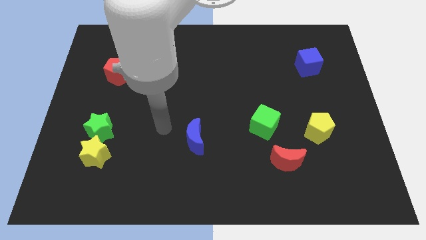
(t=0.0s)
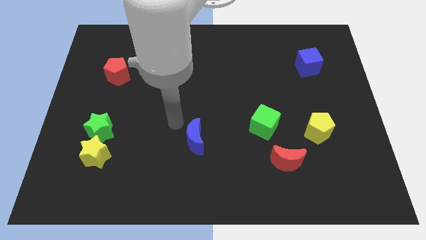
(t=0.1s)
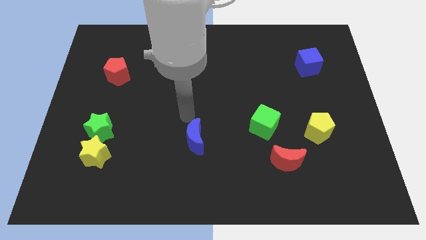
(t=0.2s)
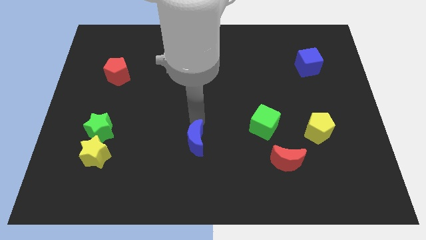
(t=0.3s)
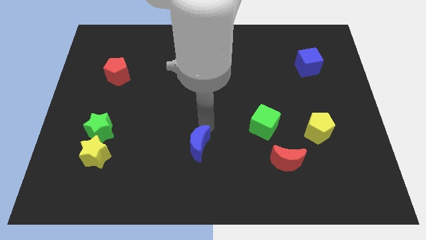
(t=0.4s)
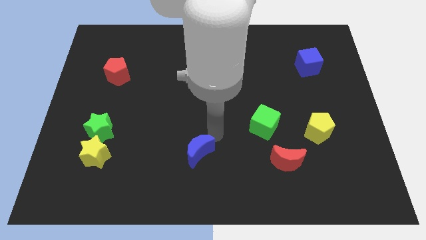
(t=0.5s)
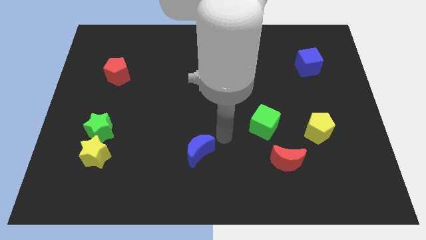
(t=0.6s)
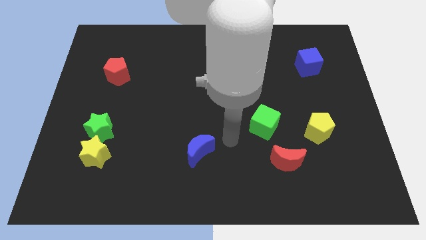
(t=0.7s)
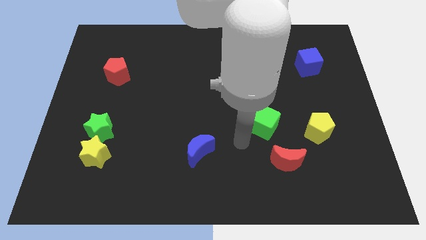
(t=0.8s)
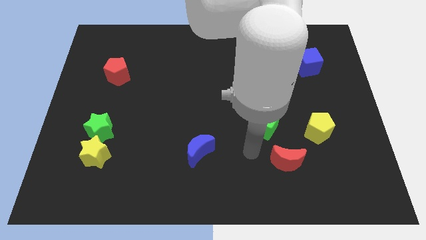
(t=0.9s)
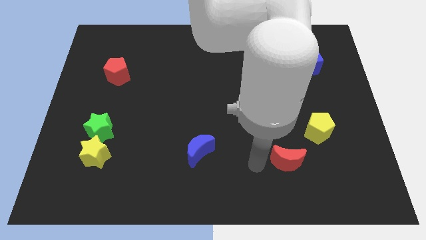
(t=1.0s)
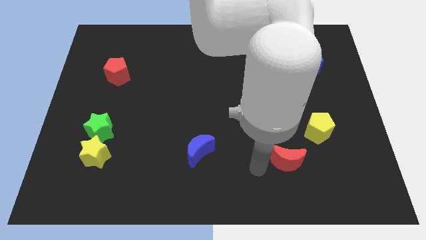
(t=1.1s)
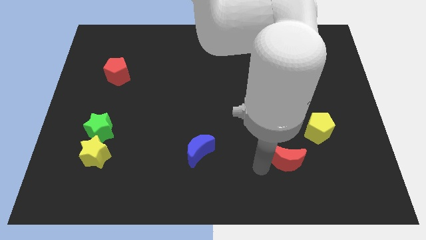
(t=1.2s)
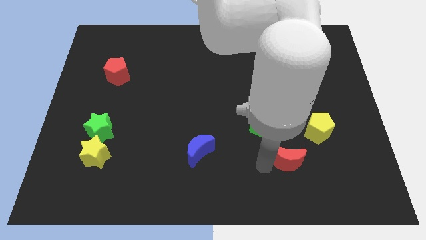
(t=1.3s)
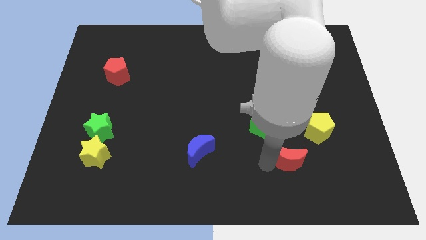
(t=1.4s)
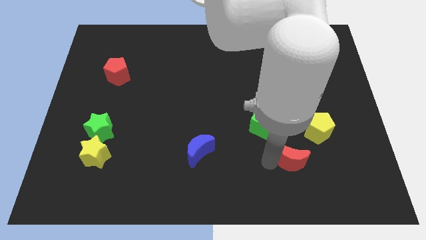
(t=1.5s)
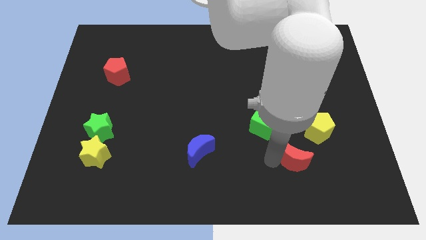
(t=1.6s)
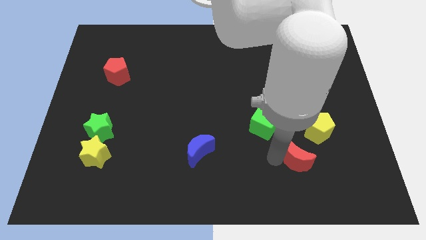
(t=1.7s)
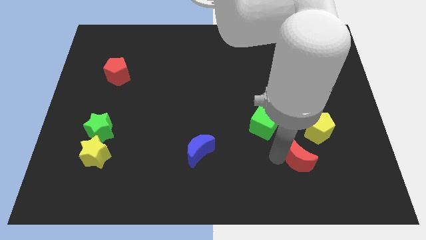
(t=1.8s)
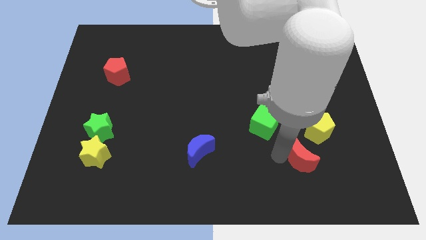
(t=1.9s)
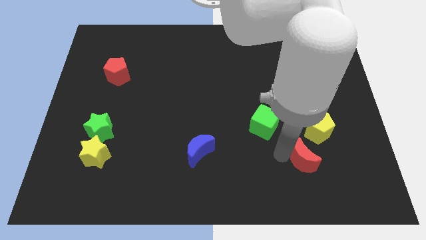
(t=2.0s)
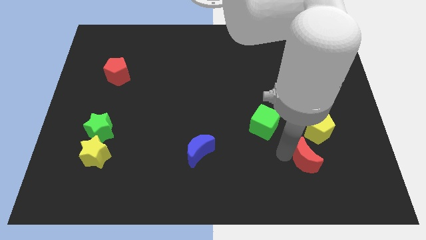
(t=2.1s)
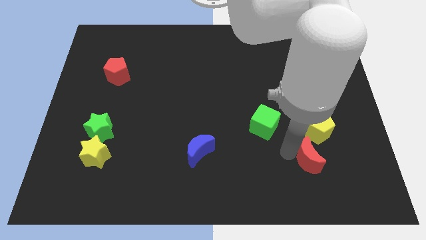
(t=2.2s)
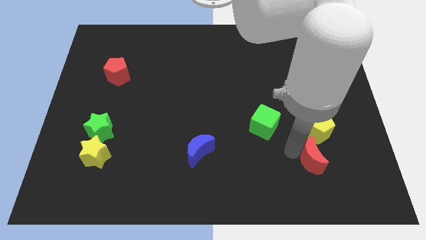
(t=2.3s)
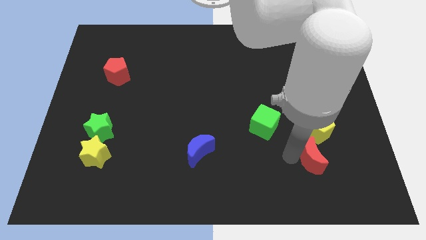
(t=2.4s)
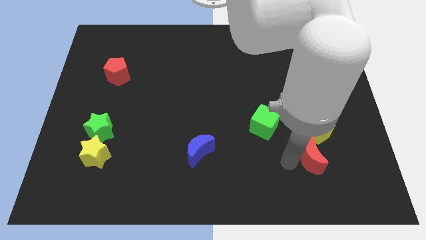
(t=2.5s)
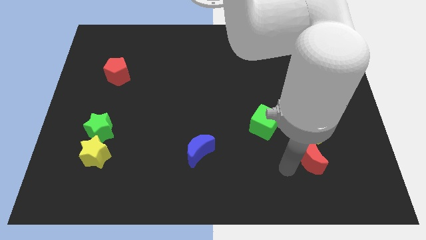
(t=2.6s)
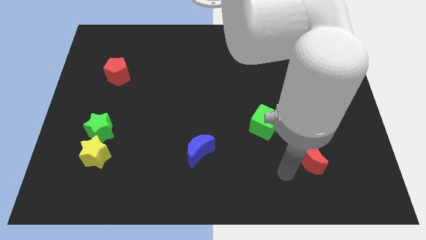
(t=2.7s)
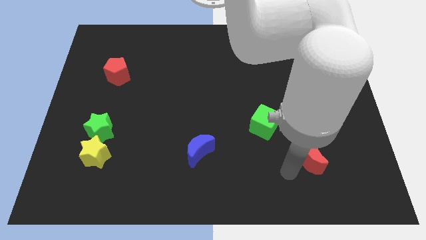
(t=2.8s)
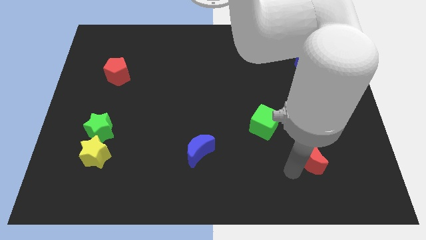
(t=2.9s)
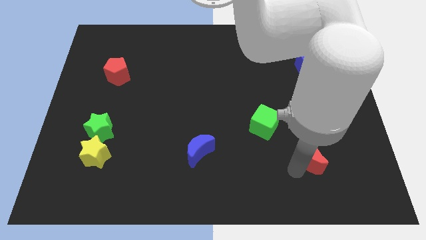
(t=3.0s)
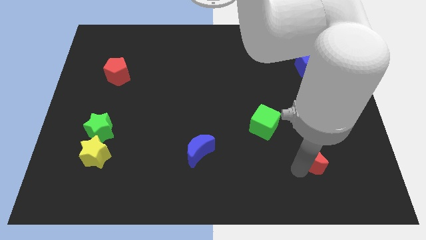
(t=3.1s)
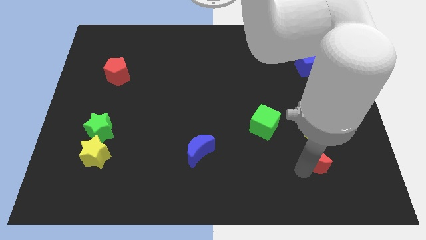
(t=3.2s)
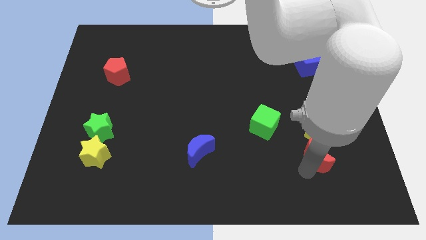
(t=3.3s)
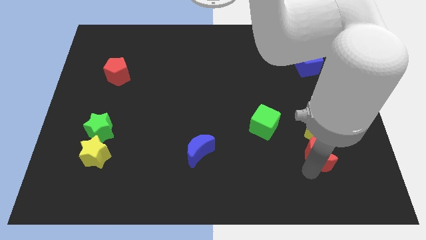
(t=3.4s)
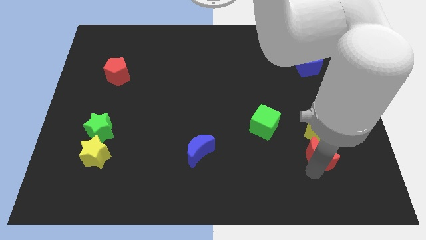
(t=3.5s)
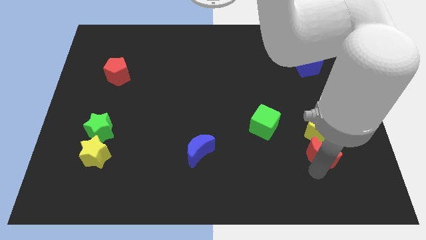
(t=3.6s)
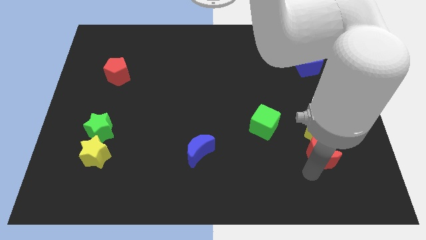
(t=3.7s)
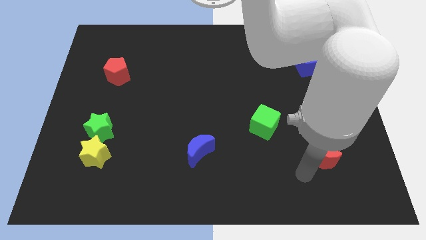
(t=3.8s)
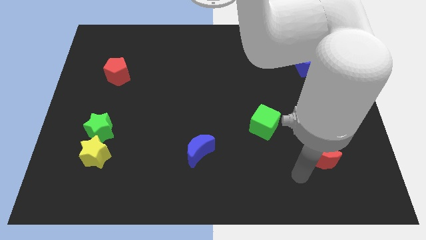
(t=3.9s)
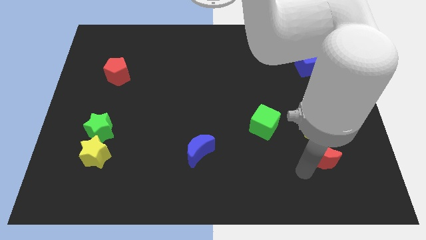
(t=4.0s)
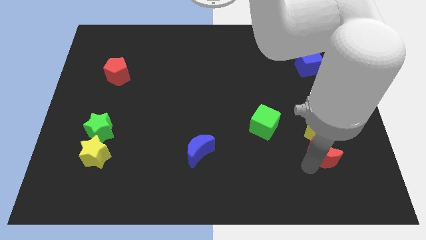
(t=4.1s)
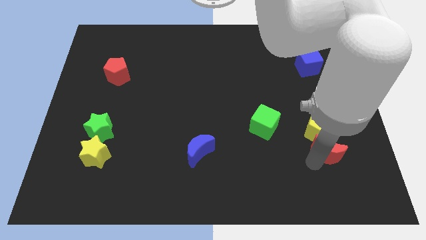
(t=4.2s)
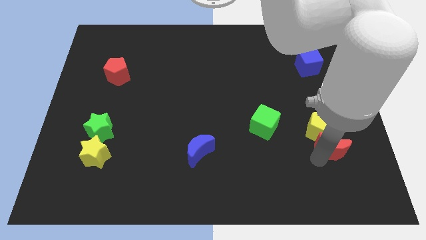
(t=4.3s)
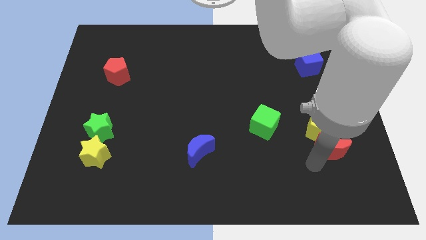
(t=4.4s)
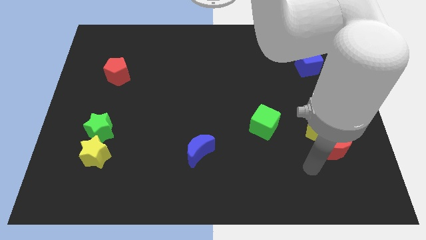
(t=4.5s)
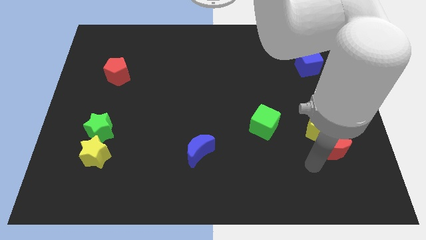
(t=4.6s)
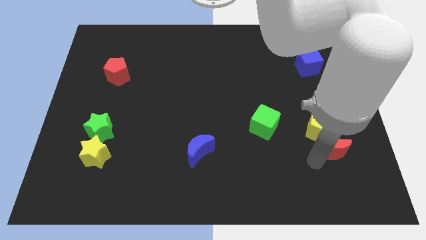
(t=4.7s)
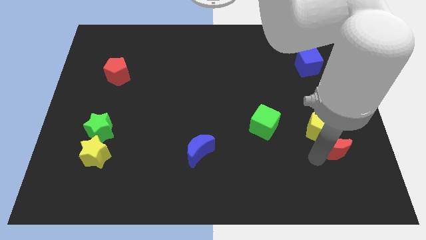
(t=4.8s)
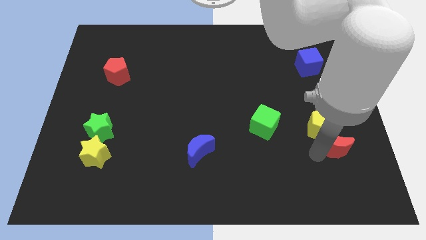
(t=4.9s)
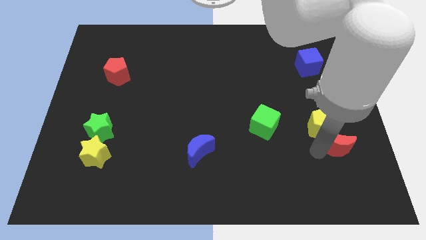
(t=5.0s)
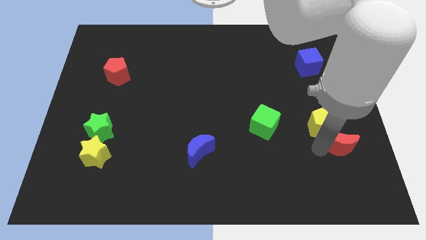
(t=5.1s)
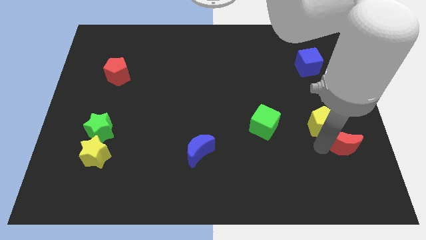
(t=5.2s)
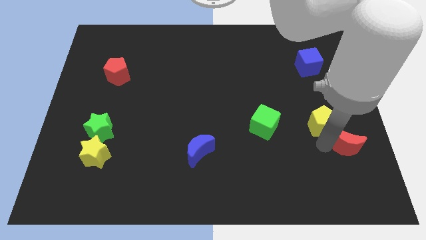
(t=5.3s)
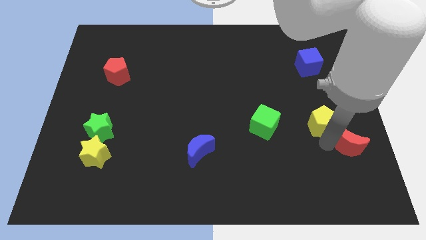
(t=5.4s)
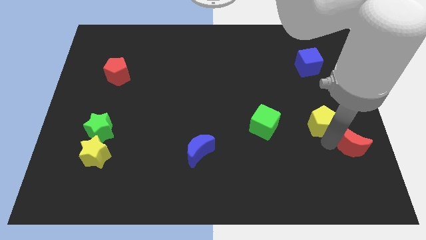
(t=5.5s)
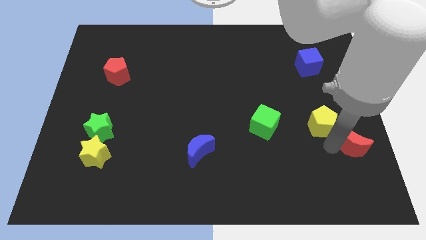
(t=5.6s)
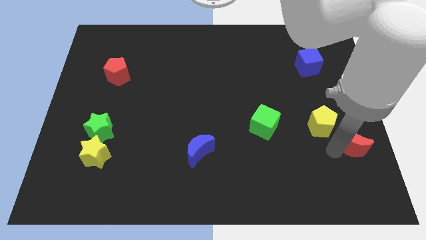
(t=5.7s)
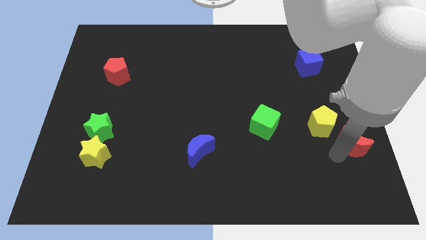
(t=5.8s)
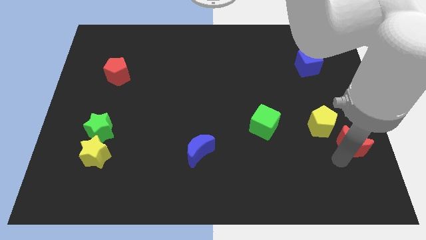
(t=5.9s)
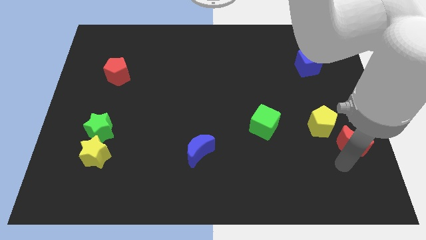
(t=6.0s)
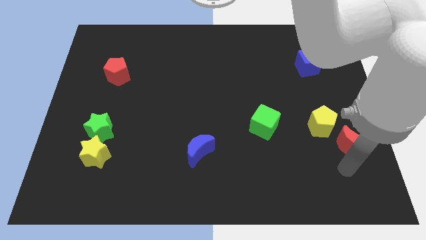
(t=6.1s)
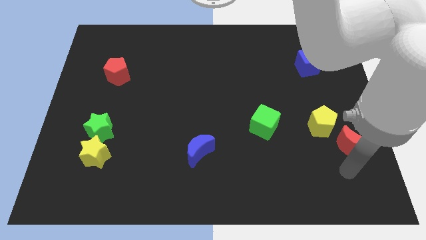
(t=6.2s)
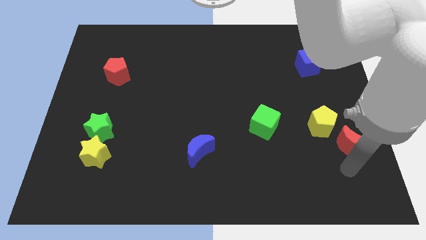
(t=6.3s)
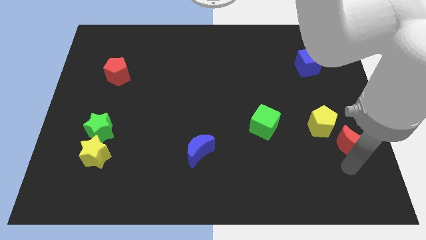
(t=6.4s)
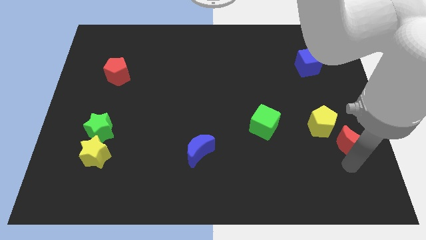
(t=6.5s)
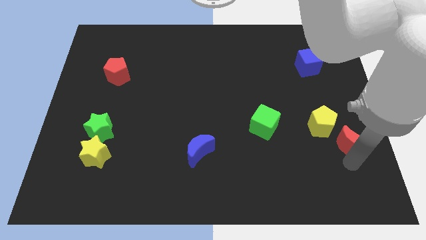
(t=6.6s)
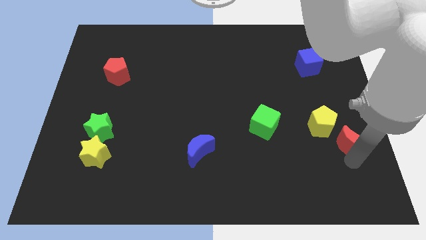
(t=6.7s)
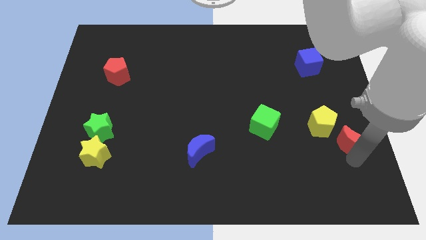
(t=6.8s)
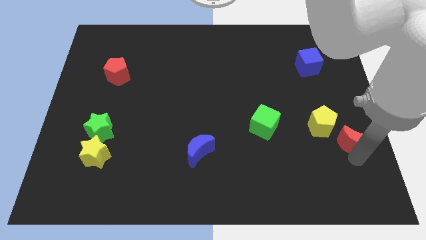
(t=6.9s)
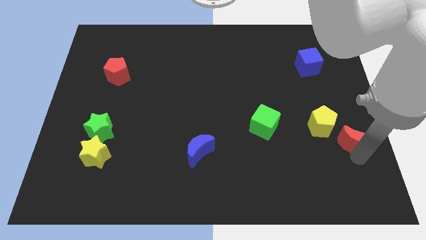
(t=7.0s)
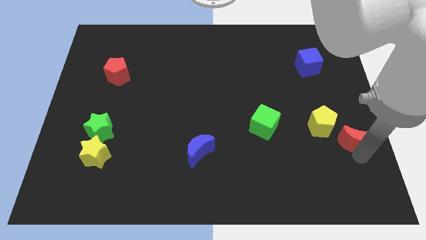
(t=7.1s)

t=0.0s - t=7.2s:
put the red moon to the right side
